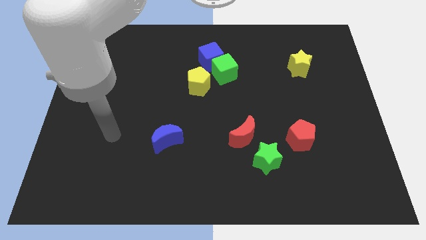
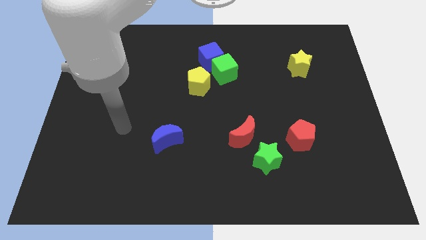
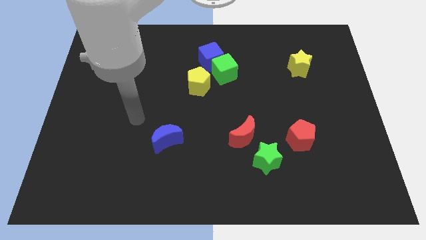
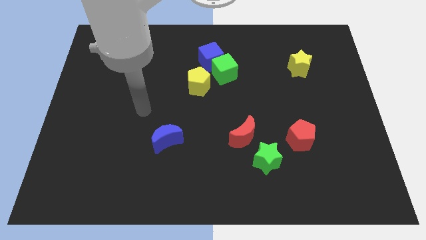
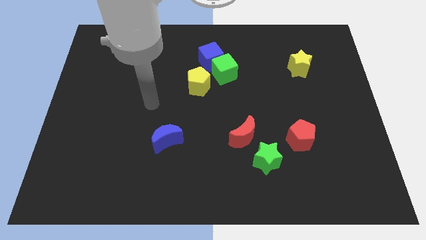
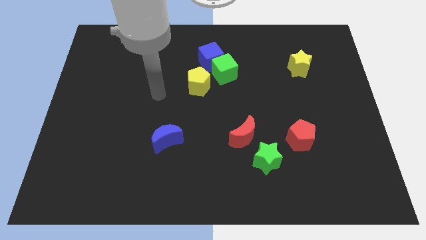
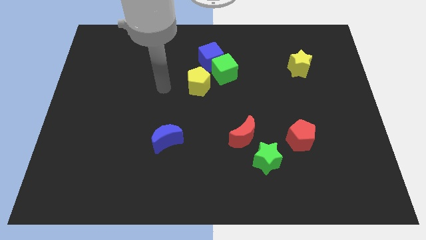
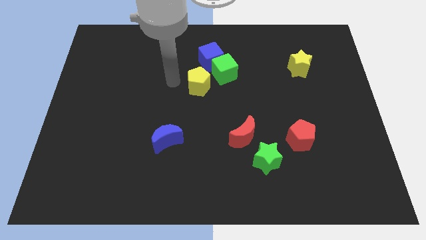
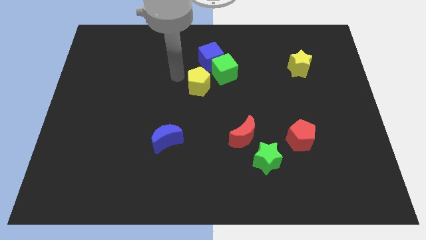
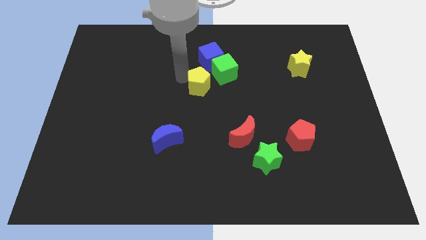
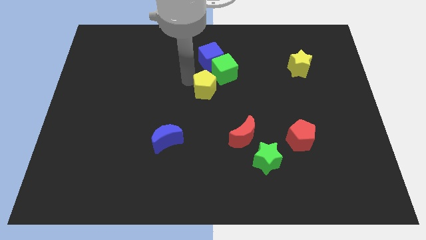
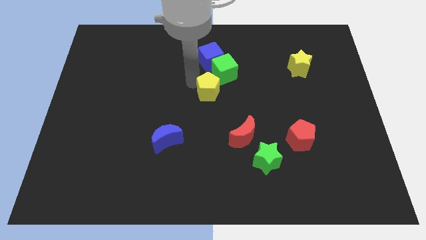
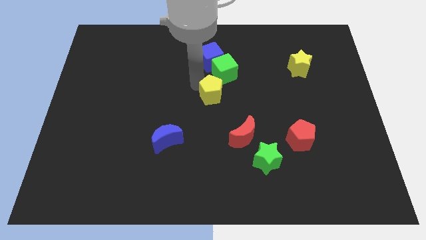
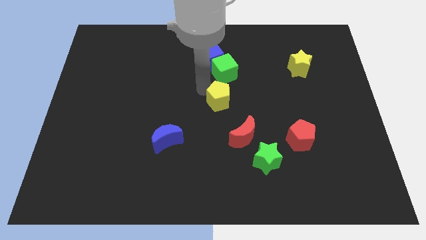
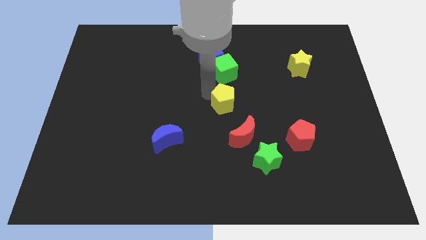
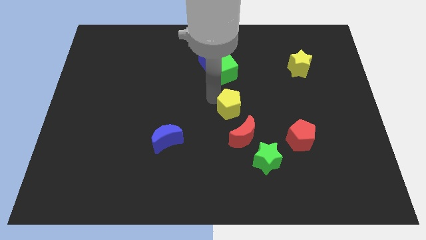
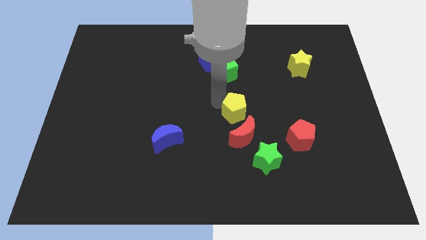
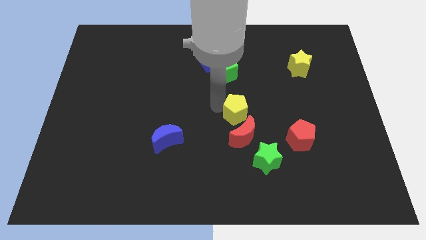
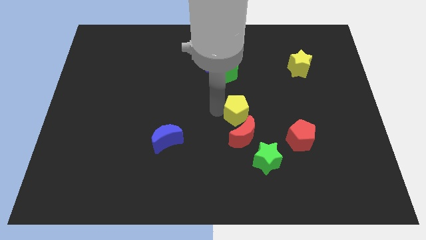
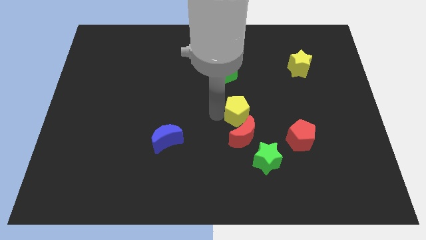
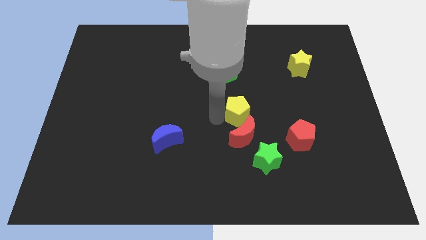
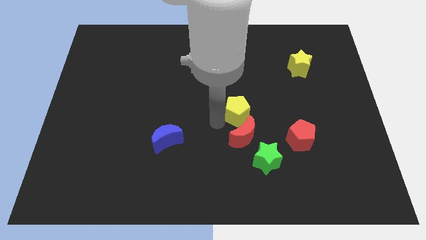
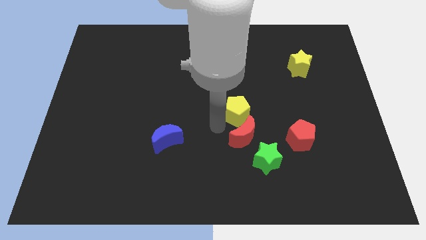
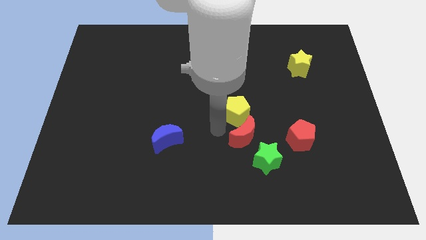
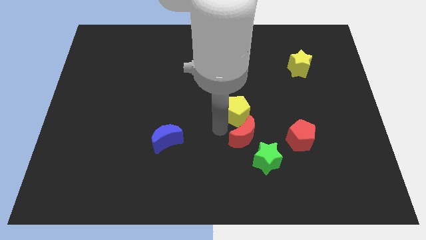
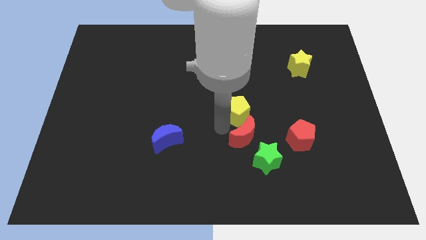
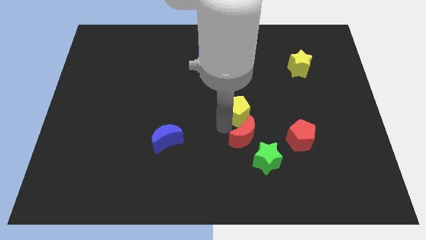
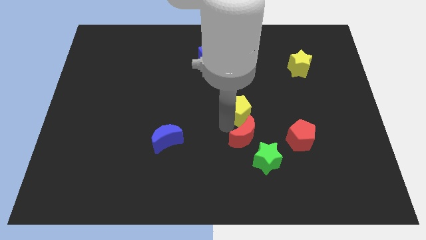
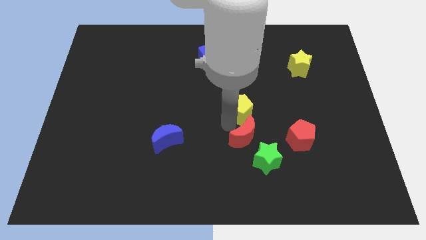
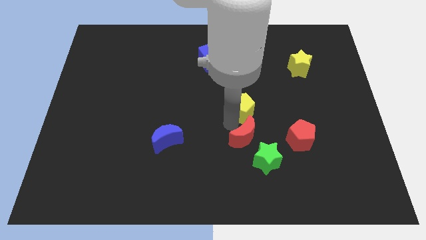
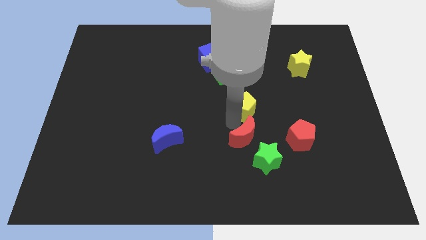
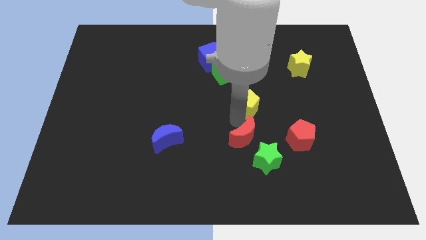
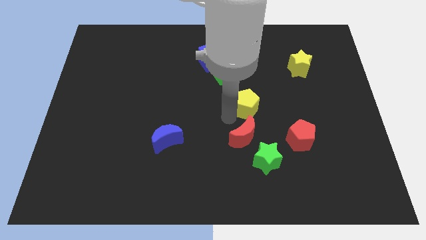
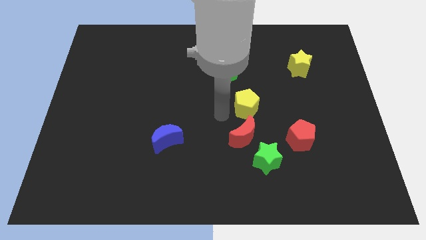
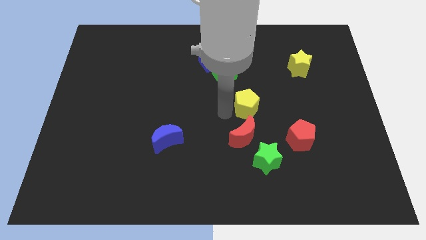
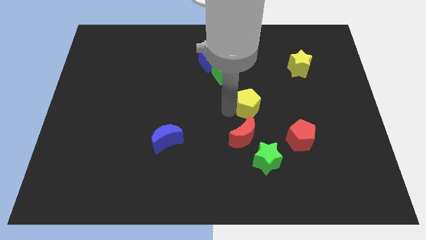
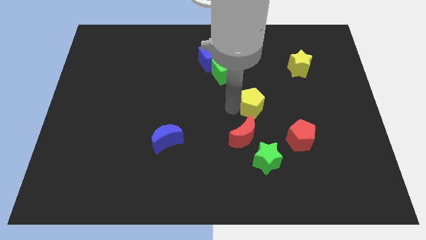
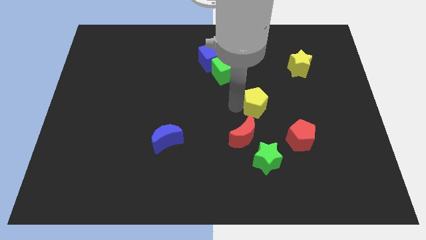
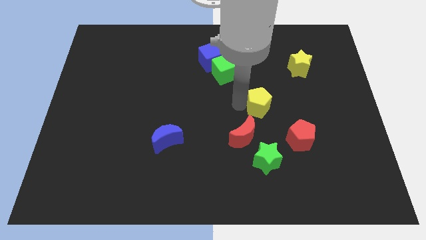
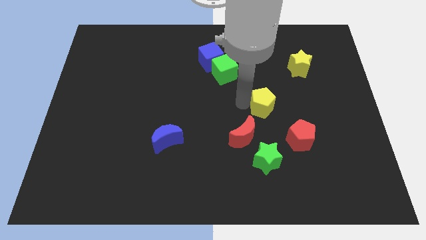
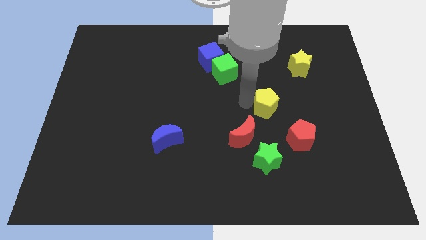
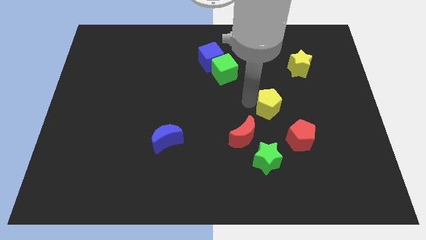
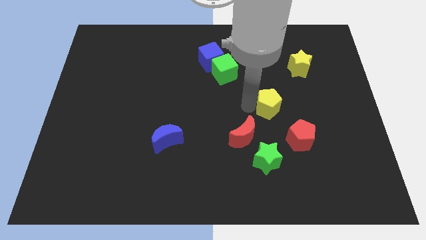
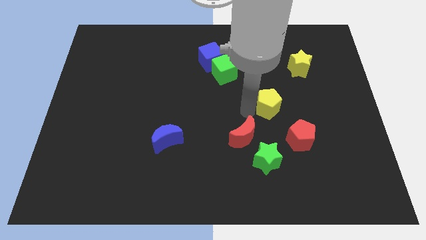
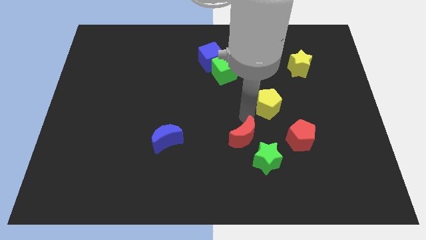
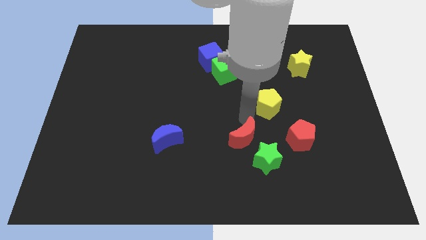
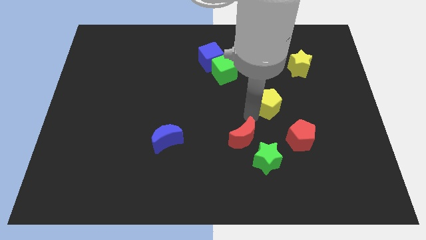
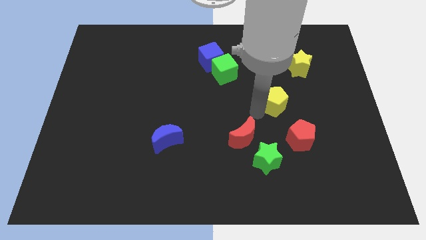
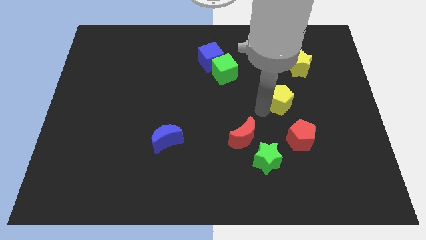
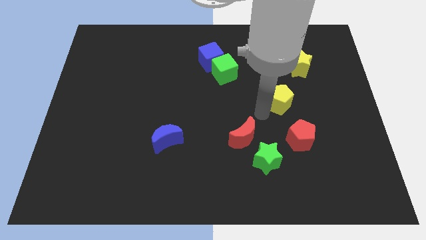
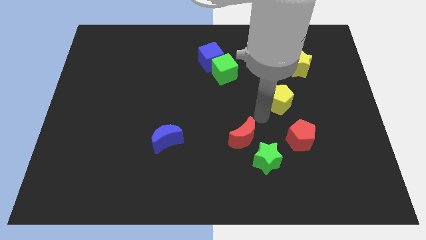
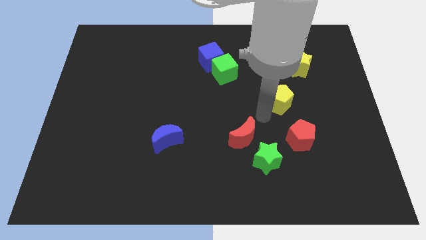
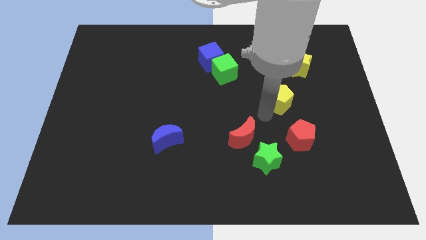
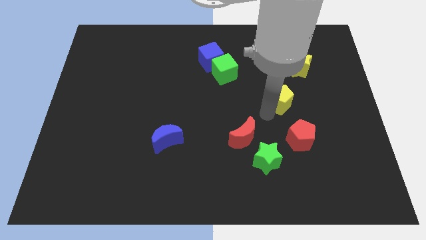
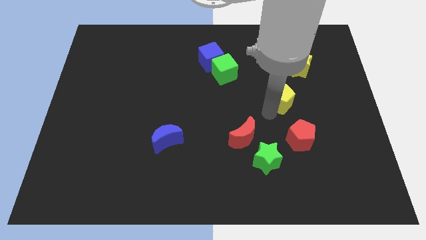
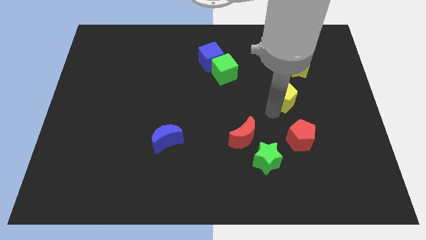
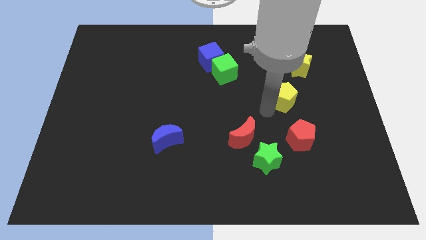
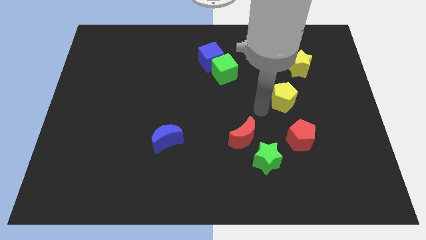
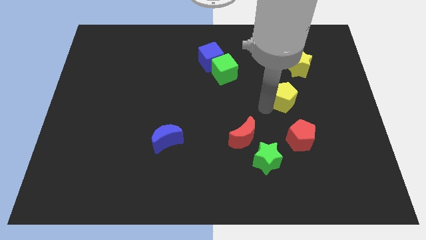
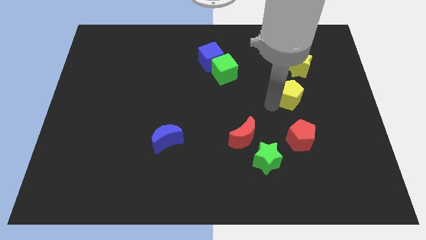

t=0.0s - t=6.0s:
move the yellow pentagon right

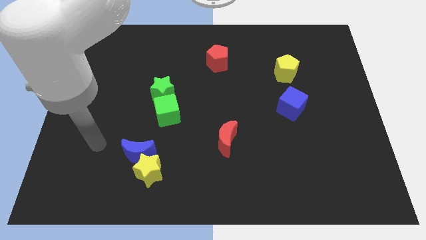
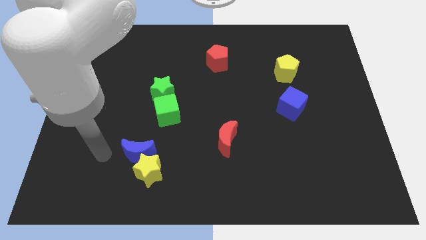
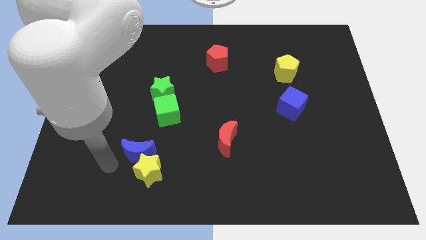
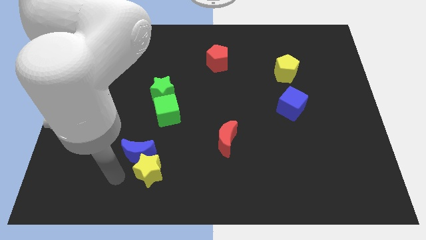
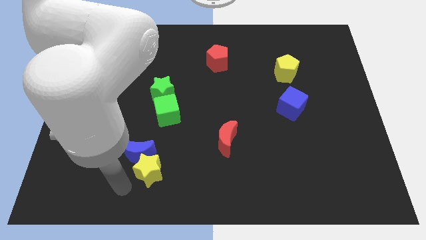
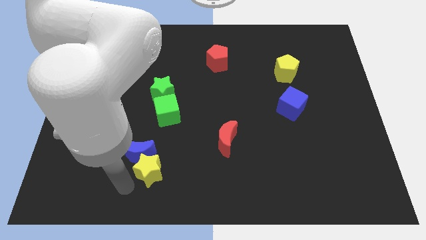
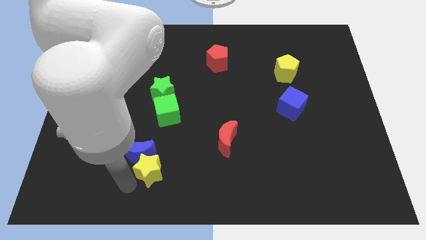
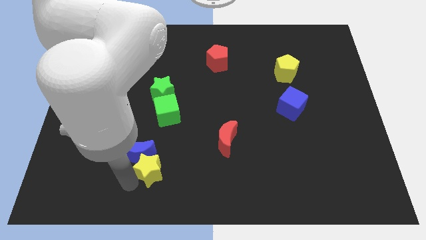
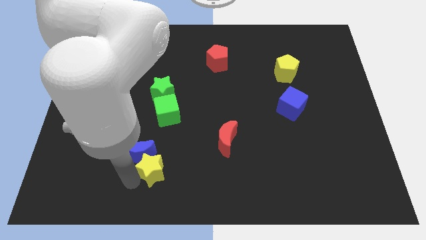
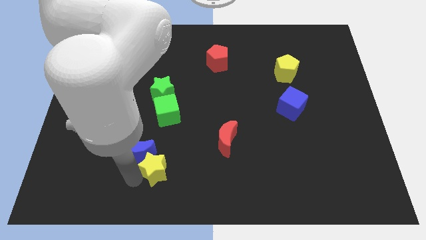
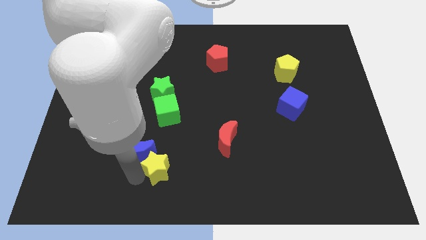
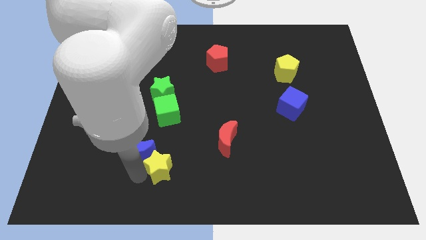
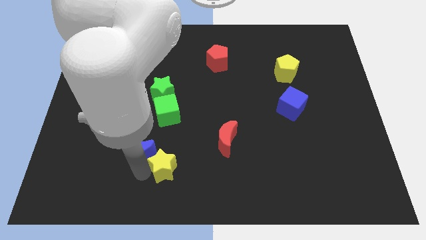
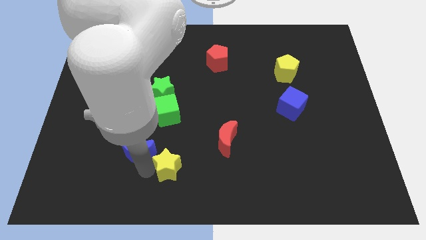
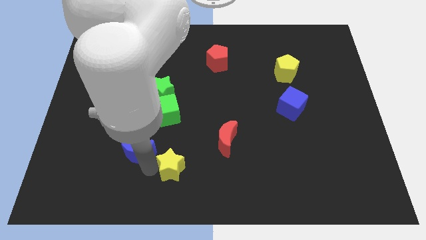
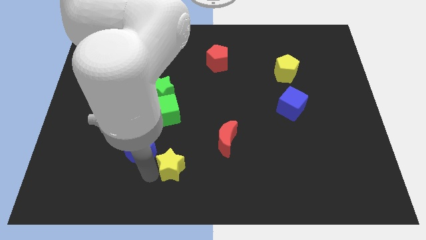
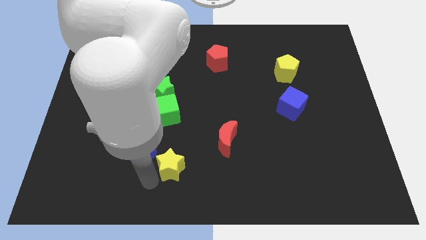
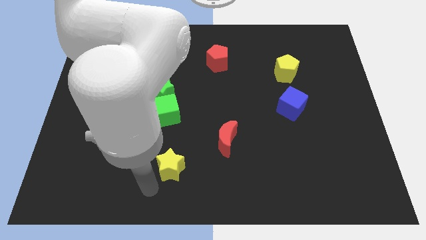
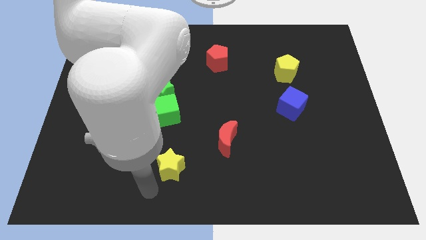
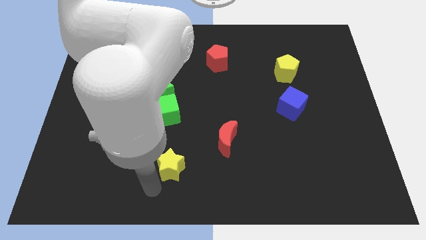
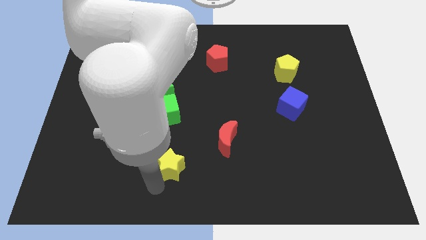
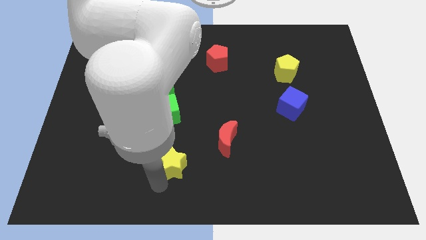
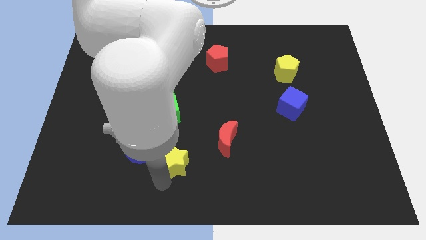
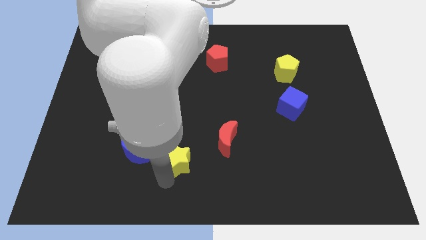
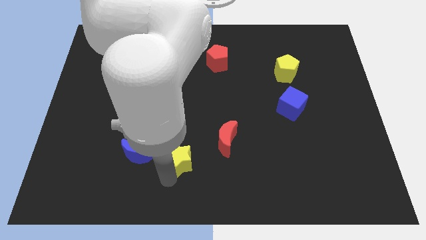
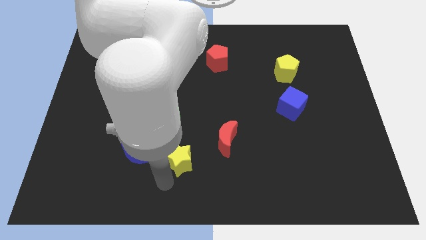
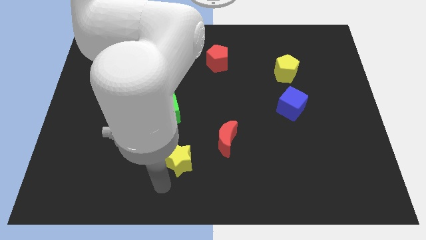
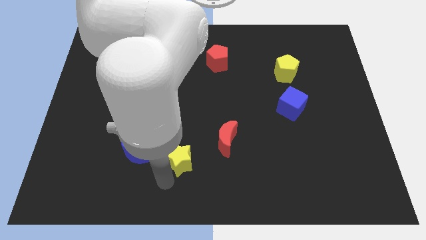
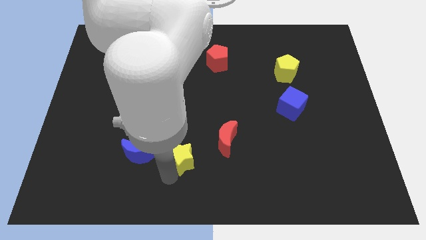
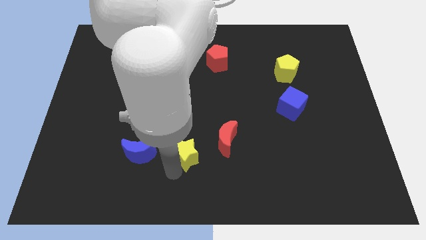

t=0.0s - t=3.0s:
push the yellow star a bit diagonally upwards and right
